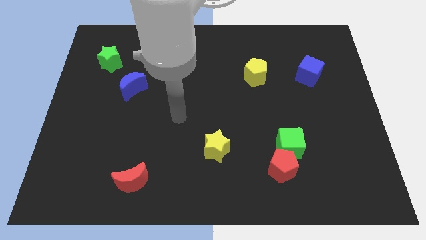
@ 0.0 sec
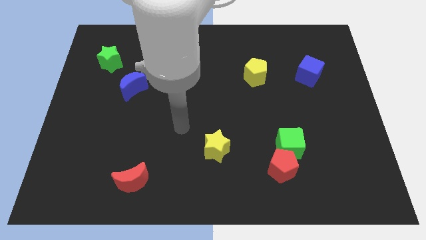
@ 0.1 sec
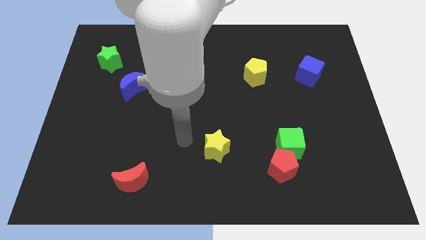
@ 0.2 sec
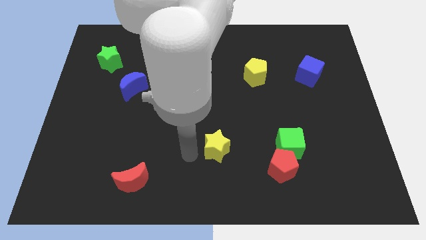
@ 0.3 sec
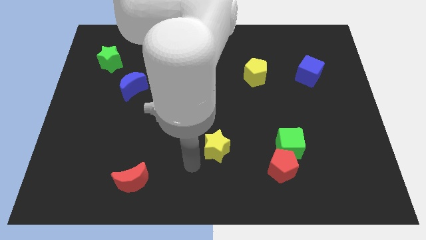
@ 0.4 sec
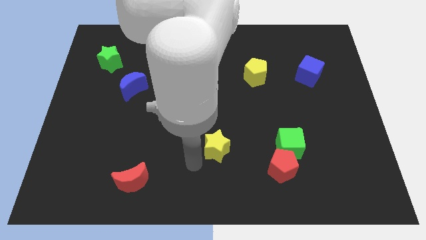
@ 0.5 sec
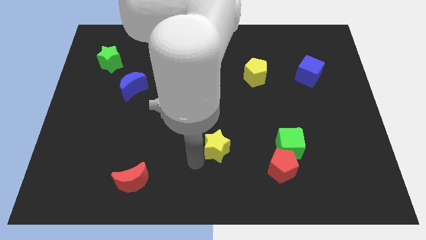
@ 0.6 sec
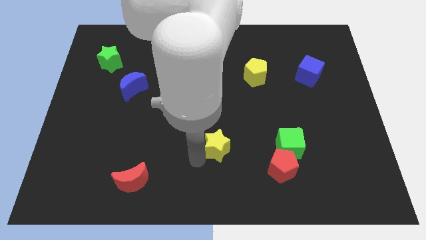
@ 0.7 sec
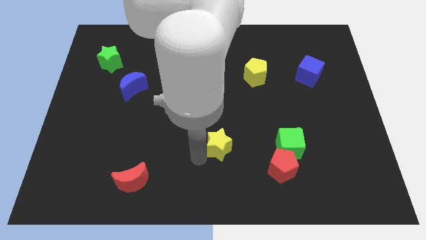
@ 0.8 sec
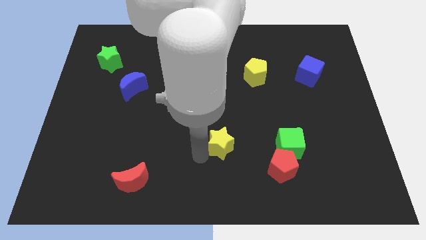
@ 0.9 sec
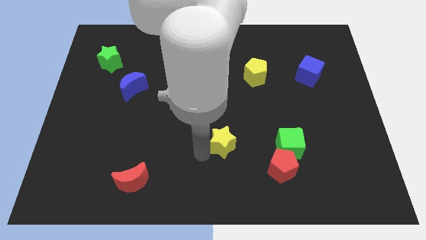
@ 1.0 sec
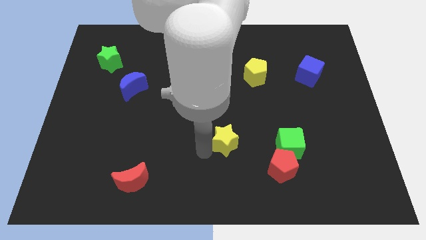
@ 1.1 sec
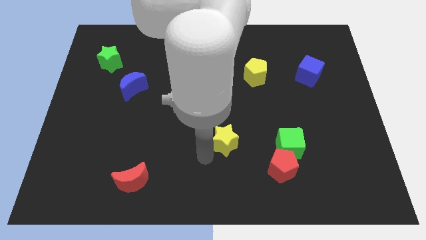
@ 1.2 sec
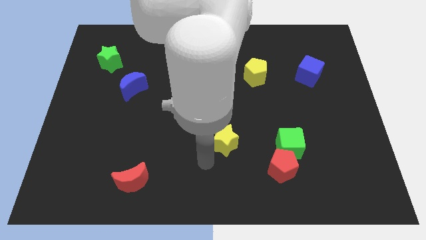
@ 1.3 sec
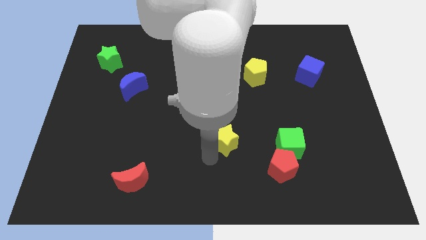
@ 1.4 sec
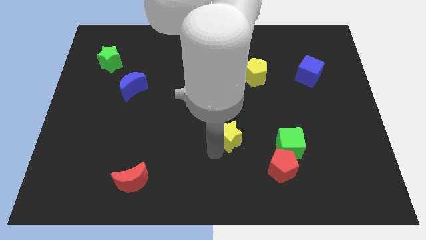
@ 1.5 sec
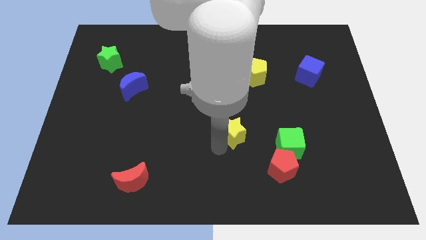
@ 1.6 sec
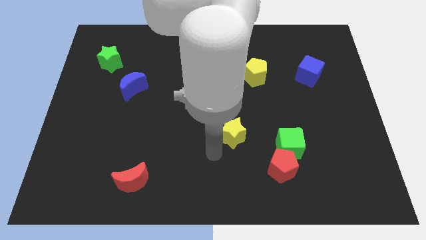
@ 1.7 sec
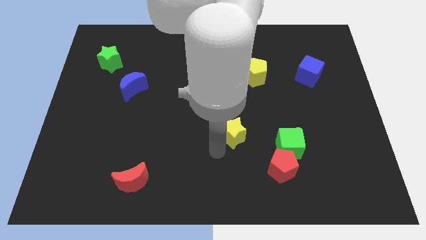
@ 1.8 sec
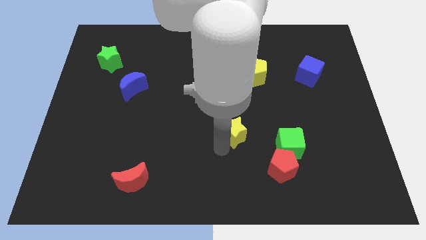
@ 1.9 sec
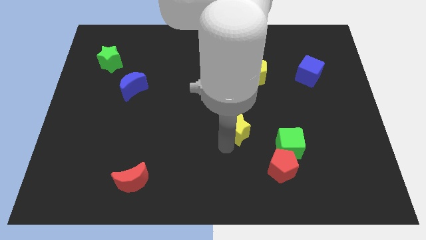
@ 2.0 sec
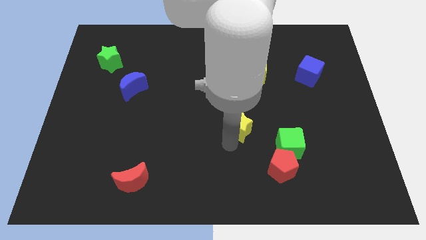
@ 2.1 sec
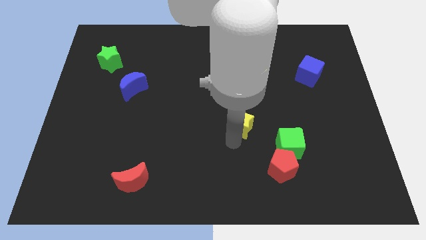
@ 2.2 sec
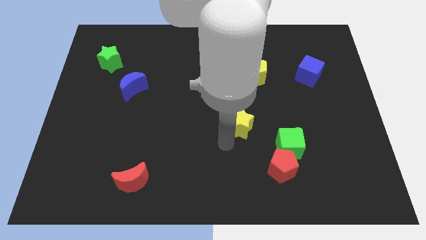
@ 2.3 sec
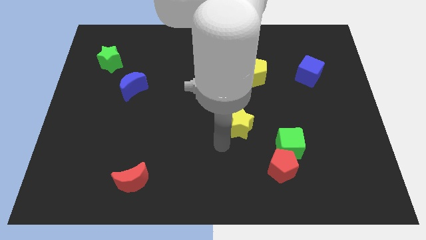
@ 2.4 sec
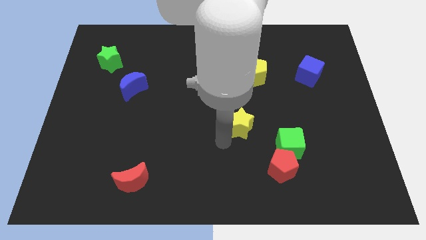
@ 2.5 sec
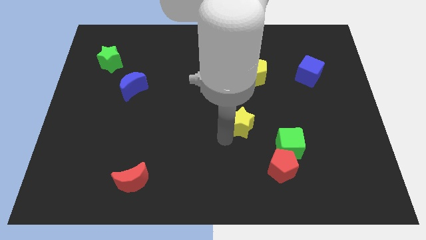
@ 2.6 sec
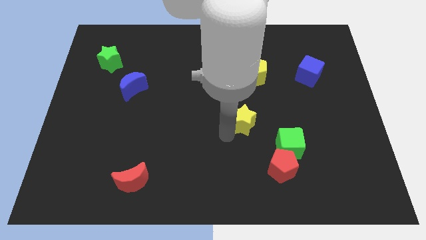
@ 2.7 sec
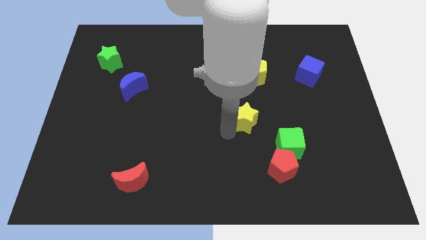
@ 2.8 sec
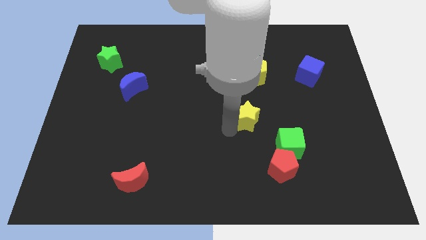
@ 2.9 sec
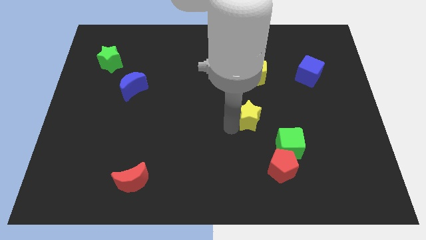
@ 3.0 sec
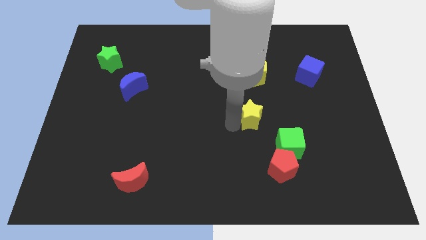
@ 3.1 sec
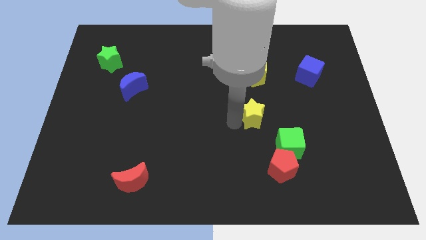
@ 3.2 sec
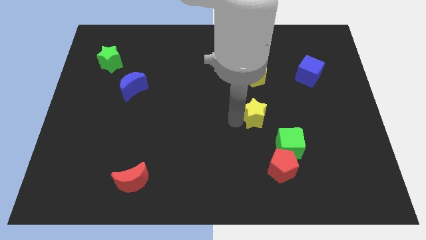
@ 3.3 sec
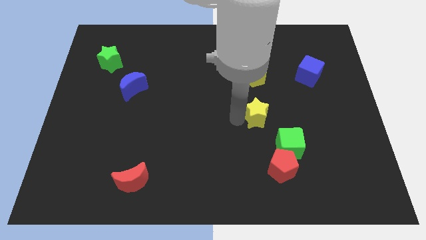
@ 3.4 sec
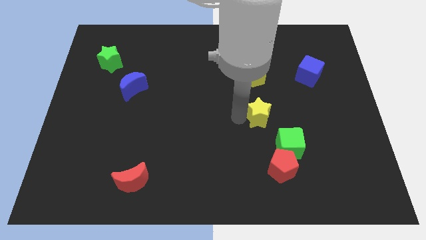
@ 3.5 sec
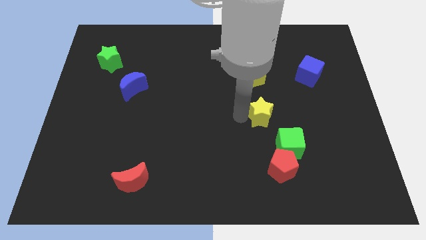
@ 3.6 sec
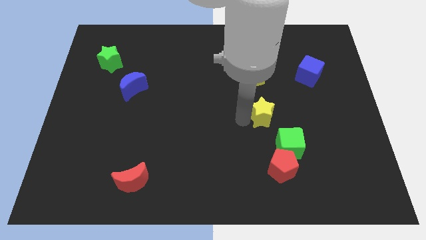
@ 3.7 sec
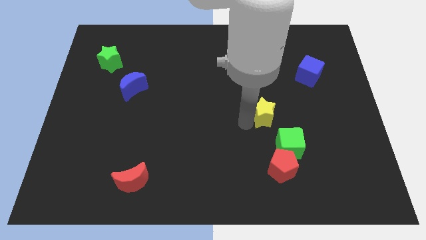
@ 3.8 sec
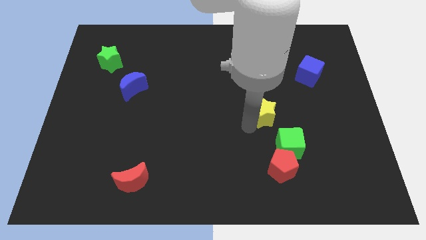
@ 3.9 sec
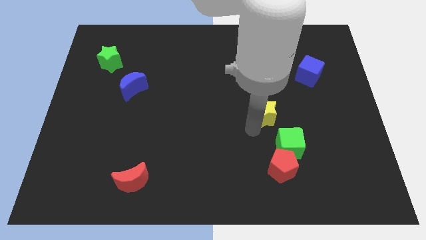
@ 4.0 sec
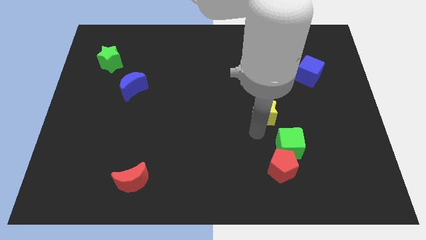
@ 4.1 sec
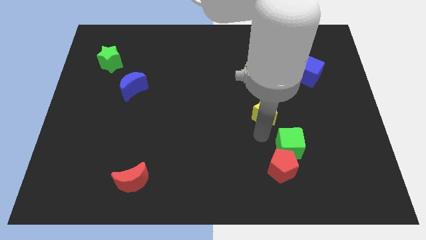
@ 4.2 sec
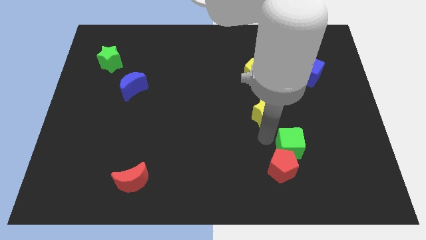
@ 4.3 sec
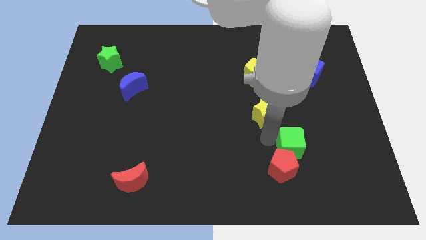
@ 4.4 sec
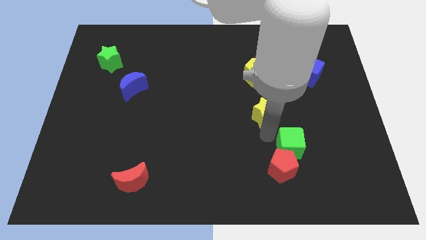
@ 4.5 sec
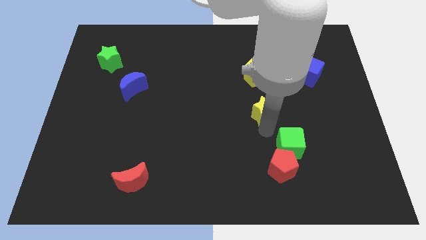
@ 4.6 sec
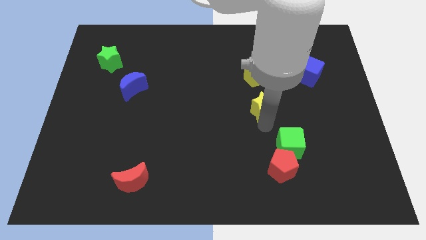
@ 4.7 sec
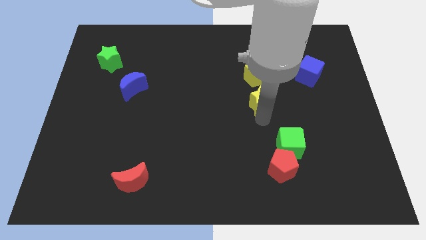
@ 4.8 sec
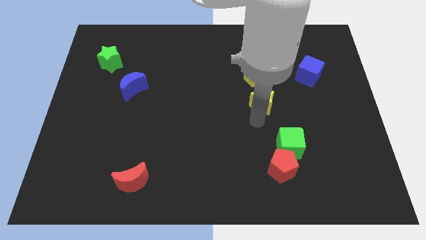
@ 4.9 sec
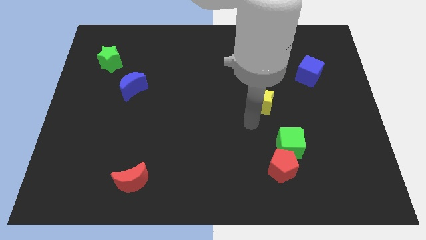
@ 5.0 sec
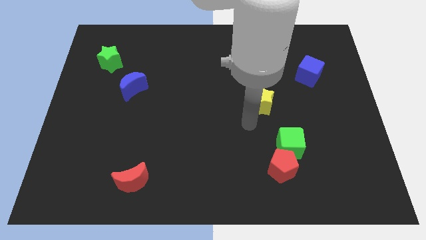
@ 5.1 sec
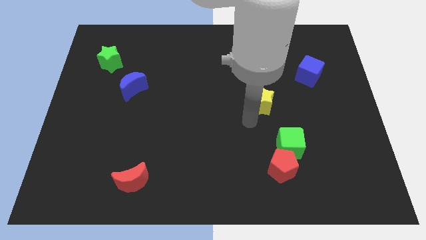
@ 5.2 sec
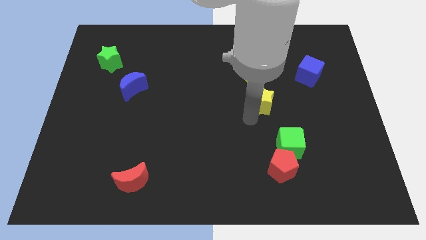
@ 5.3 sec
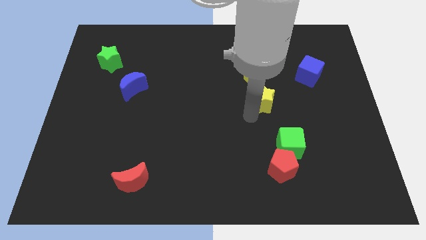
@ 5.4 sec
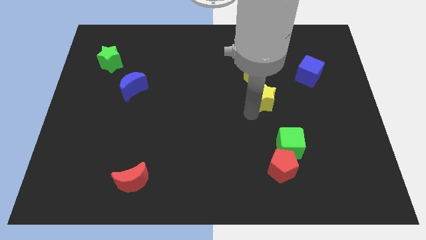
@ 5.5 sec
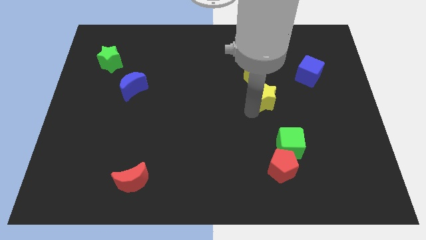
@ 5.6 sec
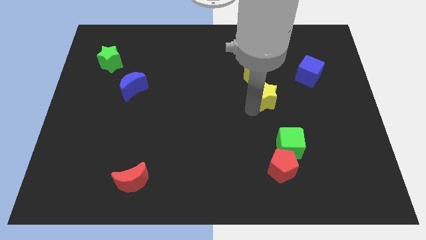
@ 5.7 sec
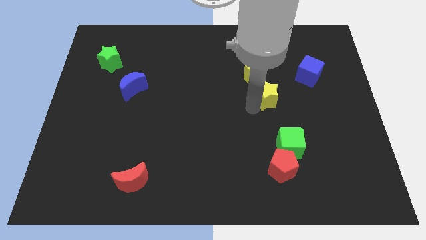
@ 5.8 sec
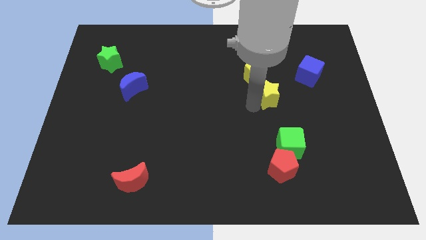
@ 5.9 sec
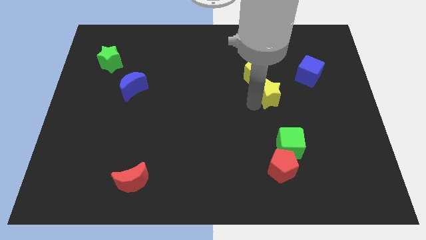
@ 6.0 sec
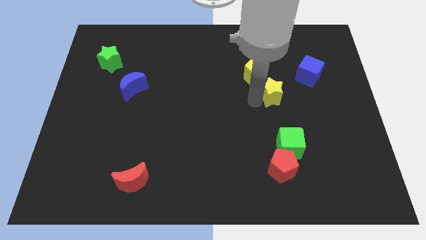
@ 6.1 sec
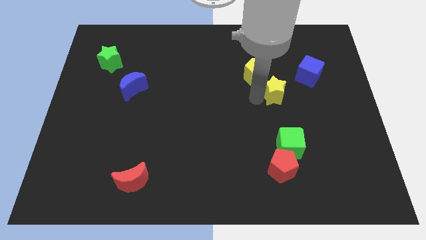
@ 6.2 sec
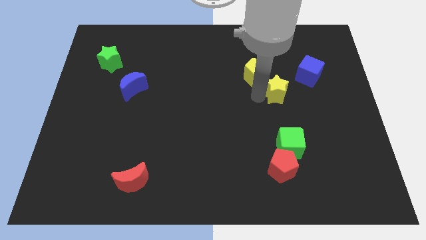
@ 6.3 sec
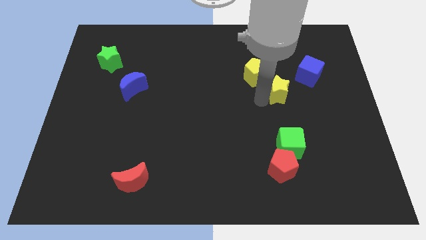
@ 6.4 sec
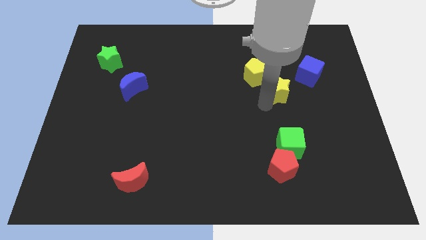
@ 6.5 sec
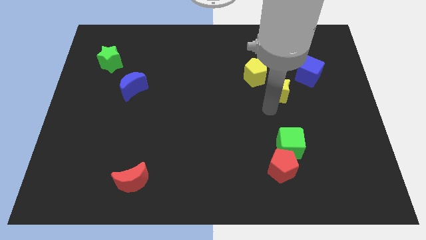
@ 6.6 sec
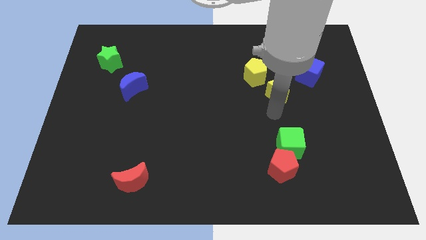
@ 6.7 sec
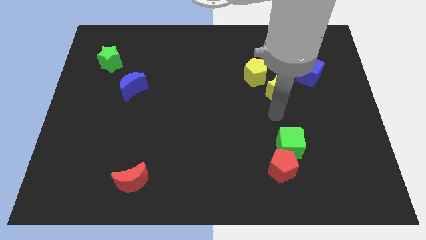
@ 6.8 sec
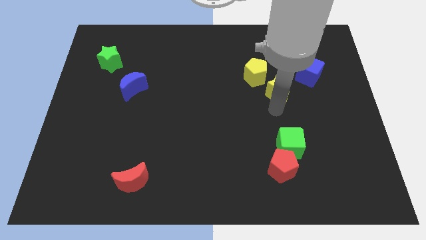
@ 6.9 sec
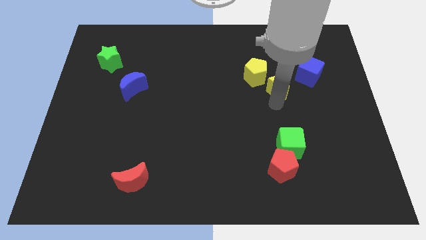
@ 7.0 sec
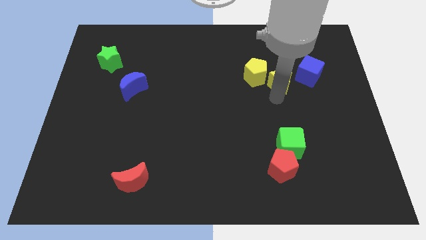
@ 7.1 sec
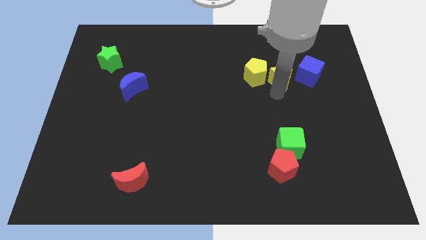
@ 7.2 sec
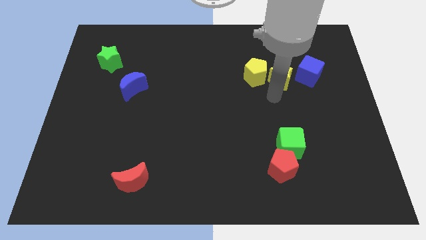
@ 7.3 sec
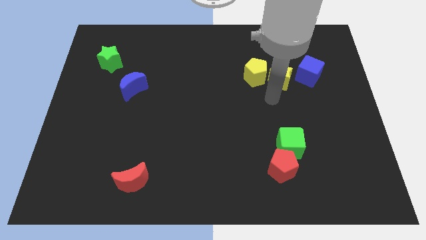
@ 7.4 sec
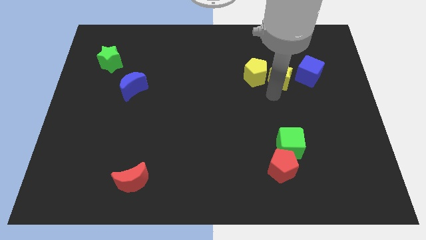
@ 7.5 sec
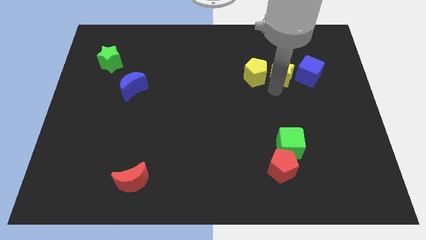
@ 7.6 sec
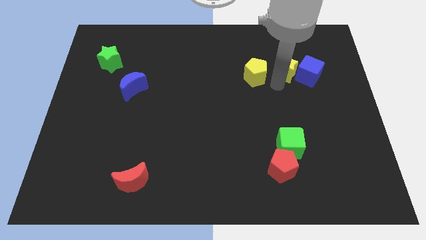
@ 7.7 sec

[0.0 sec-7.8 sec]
slide the yellow star to the top left side of the blue cube
